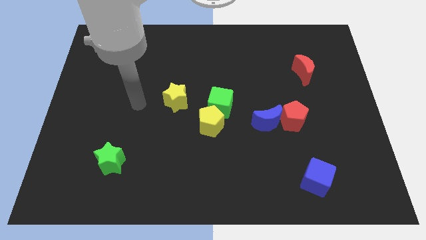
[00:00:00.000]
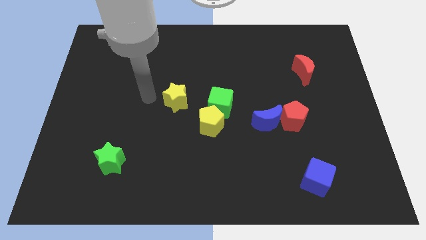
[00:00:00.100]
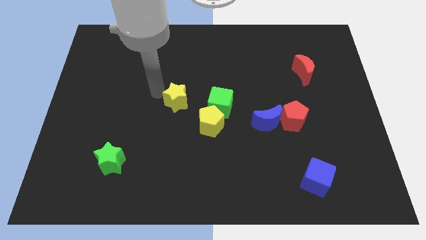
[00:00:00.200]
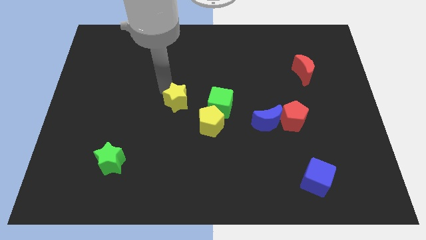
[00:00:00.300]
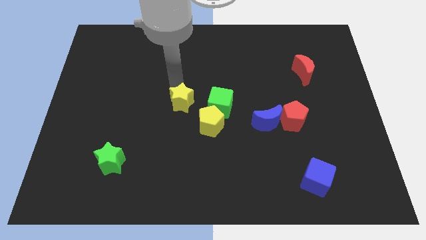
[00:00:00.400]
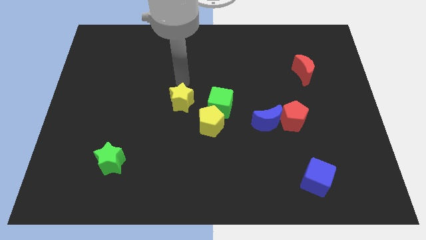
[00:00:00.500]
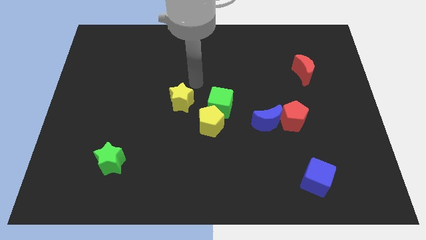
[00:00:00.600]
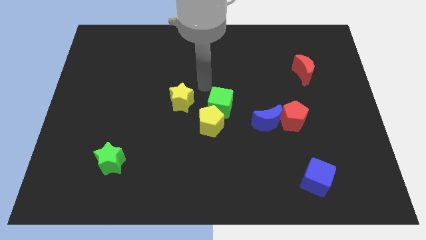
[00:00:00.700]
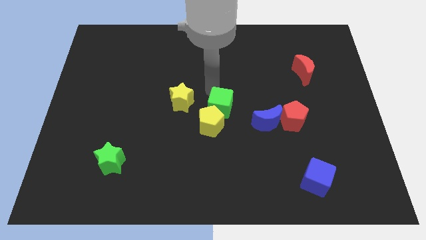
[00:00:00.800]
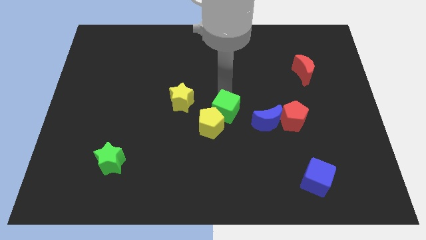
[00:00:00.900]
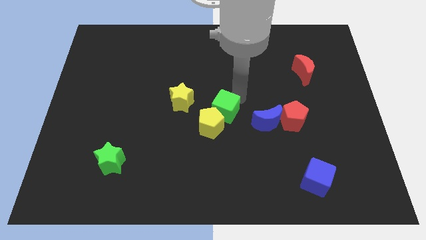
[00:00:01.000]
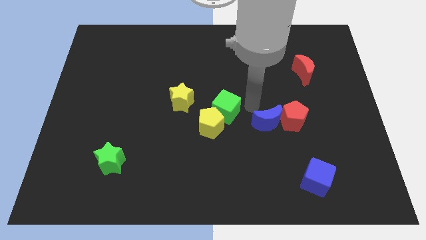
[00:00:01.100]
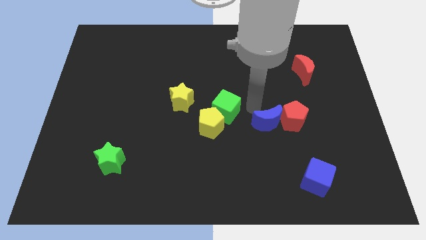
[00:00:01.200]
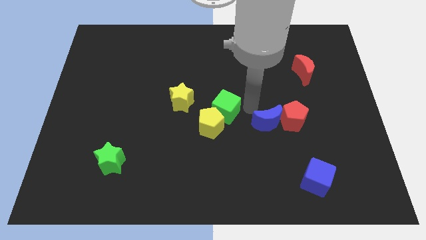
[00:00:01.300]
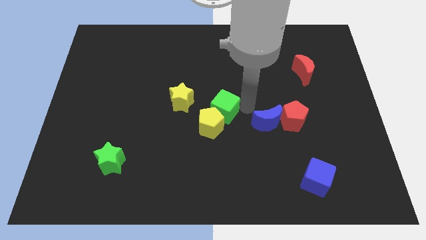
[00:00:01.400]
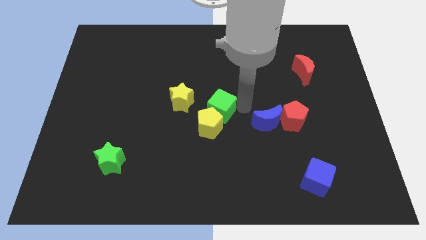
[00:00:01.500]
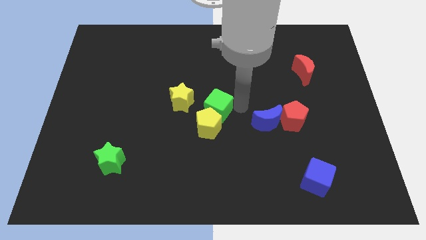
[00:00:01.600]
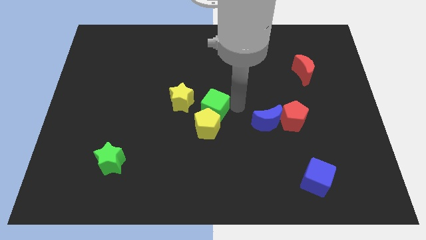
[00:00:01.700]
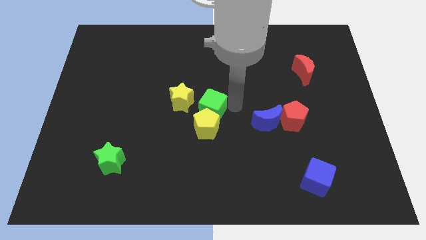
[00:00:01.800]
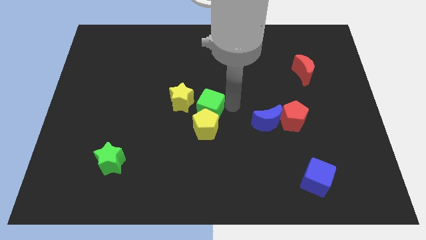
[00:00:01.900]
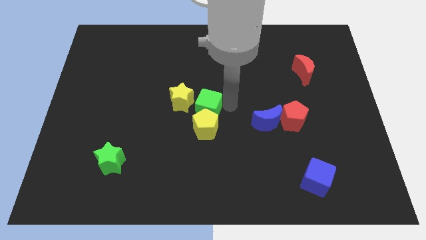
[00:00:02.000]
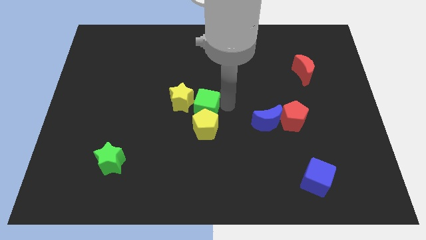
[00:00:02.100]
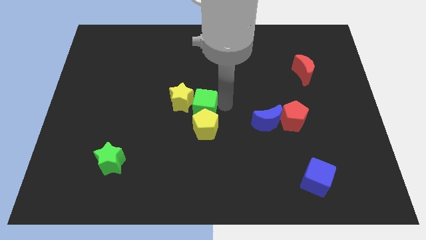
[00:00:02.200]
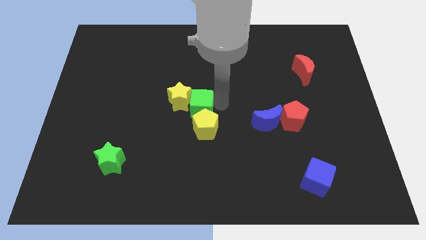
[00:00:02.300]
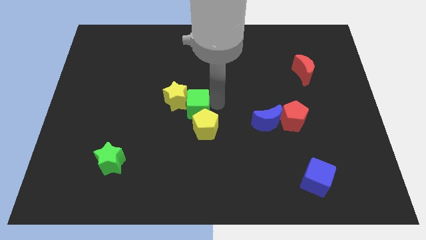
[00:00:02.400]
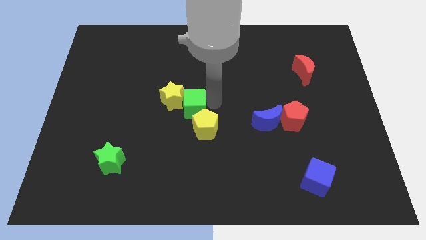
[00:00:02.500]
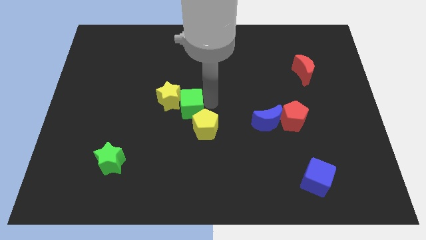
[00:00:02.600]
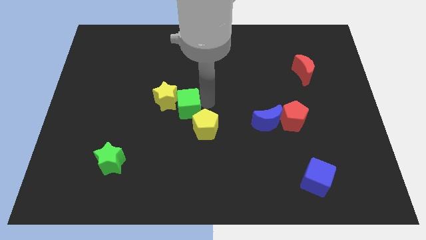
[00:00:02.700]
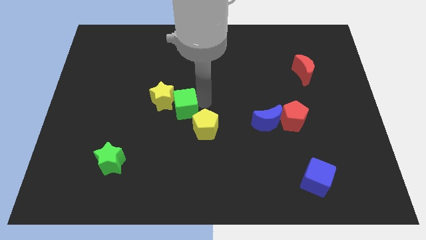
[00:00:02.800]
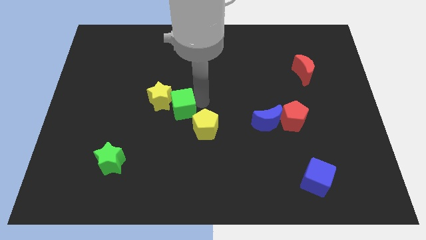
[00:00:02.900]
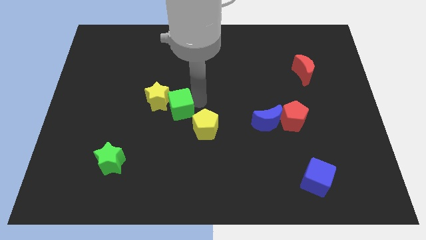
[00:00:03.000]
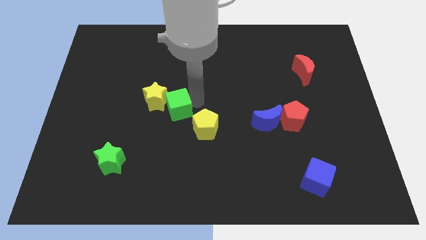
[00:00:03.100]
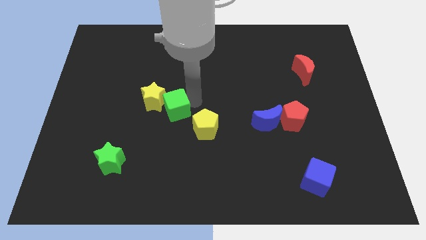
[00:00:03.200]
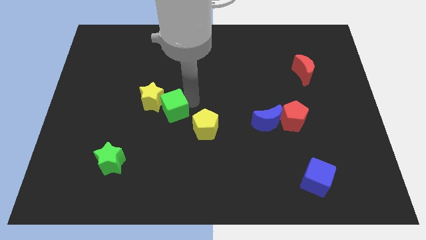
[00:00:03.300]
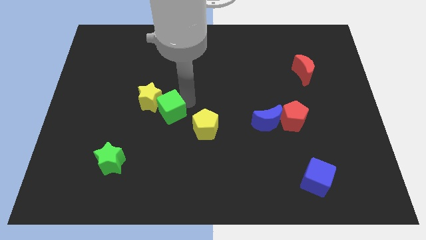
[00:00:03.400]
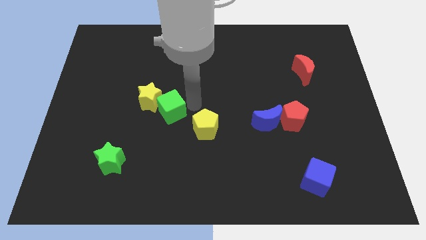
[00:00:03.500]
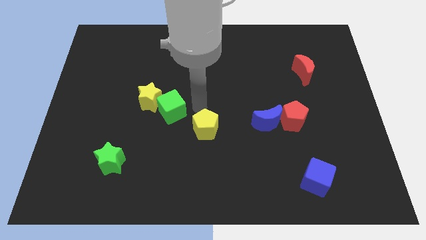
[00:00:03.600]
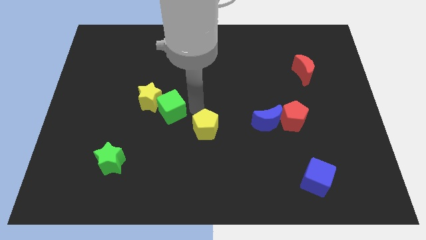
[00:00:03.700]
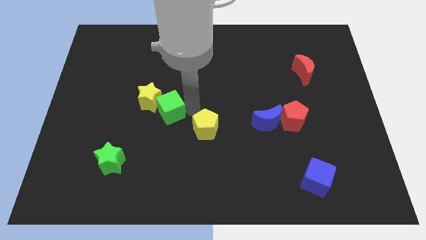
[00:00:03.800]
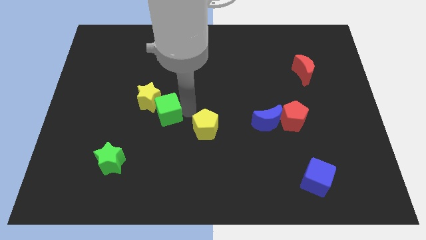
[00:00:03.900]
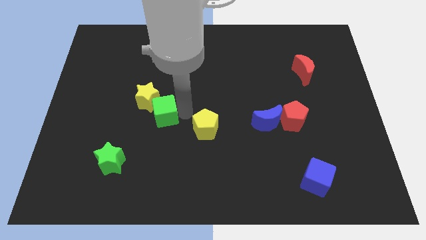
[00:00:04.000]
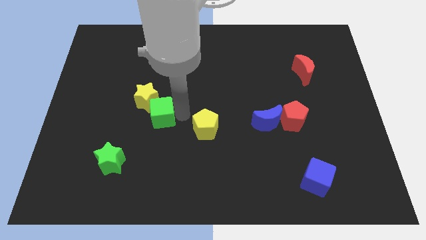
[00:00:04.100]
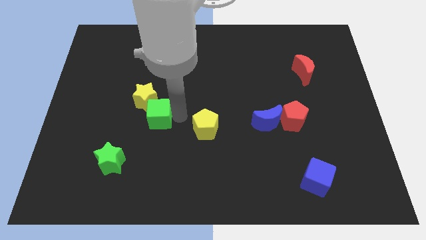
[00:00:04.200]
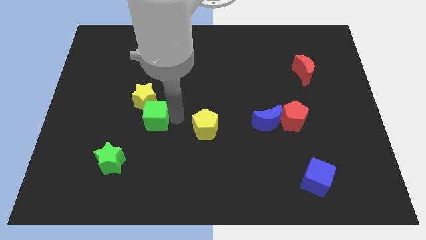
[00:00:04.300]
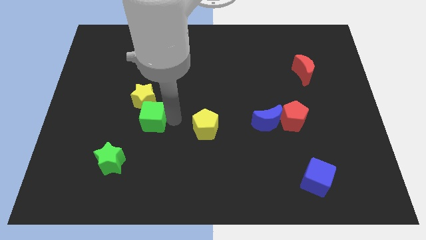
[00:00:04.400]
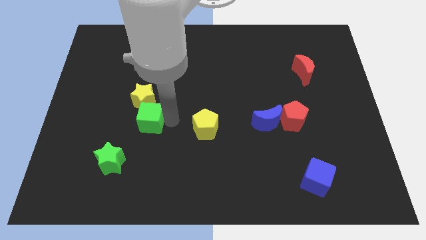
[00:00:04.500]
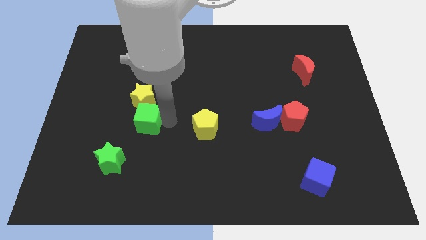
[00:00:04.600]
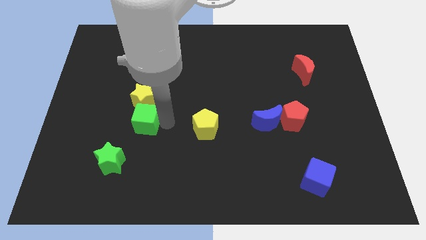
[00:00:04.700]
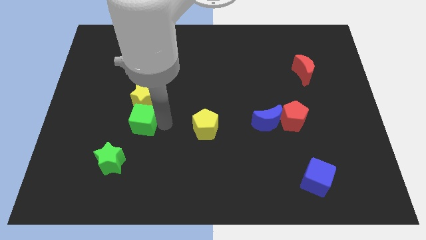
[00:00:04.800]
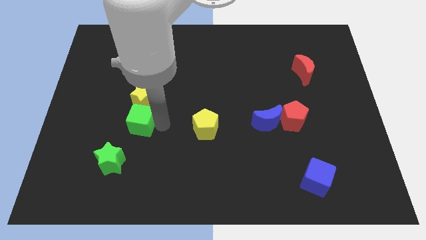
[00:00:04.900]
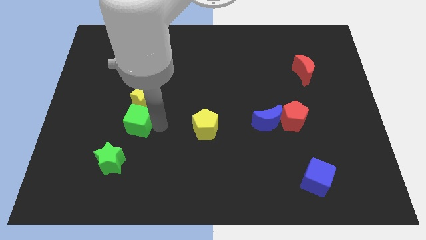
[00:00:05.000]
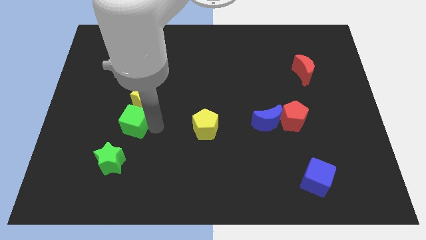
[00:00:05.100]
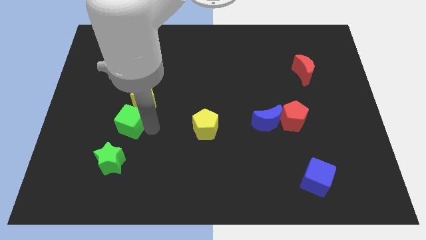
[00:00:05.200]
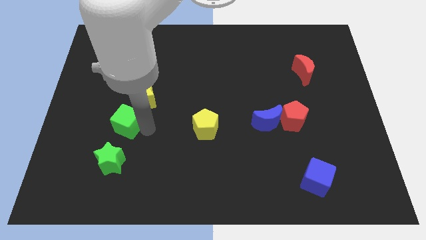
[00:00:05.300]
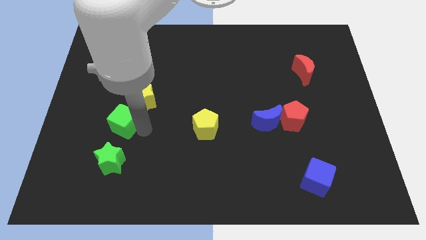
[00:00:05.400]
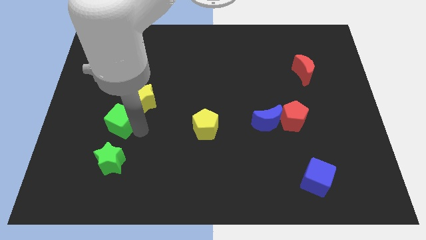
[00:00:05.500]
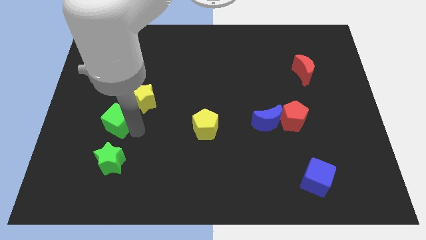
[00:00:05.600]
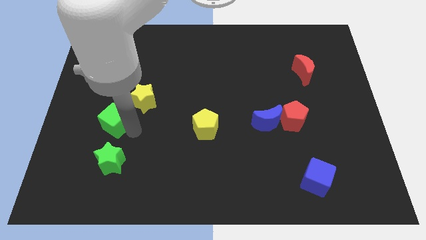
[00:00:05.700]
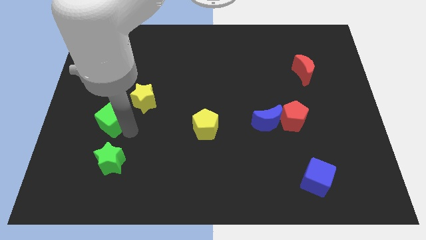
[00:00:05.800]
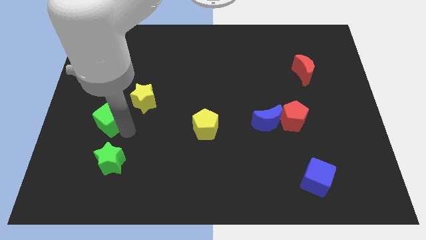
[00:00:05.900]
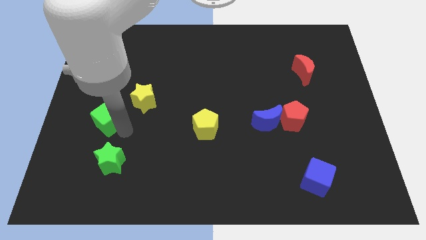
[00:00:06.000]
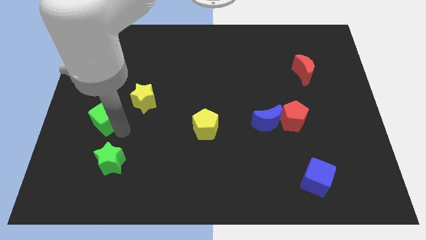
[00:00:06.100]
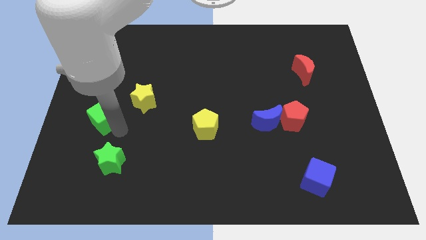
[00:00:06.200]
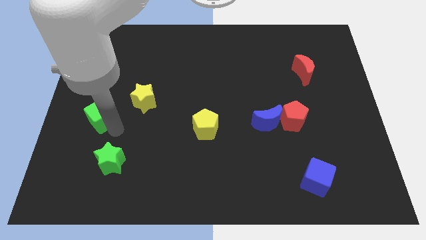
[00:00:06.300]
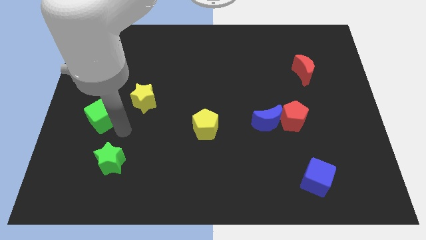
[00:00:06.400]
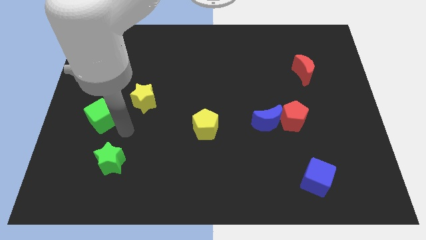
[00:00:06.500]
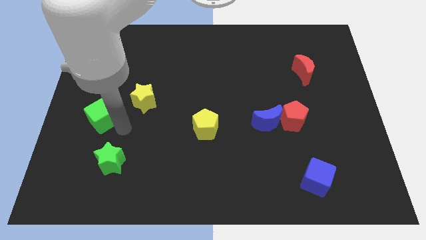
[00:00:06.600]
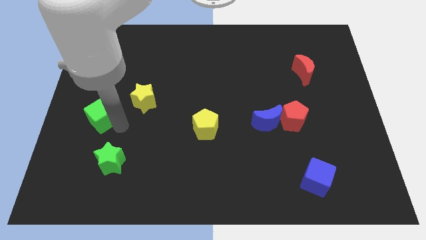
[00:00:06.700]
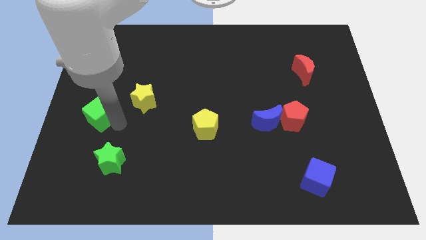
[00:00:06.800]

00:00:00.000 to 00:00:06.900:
push the green cube to the left side of the board

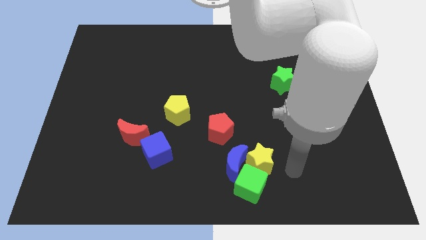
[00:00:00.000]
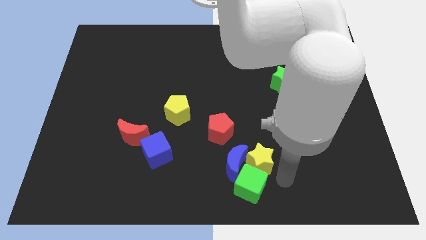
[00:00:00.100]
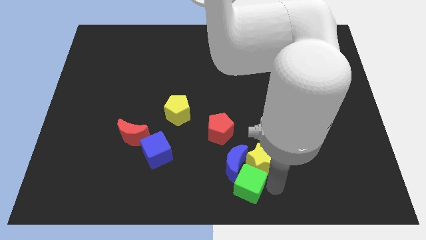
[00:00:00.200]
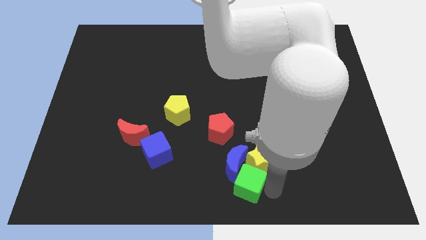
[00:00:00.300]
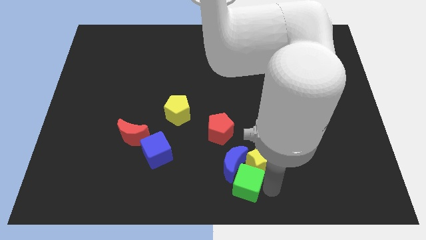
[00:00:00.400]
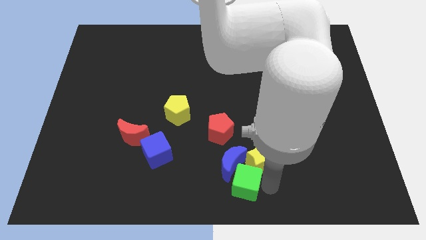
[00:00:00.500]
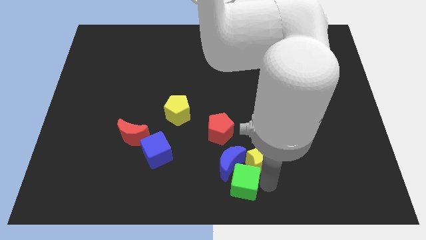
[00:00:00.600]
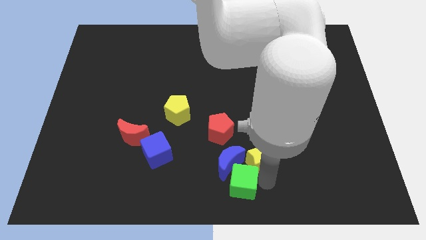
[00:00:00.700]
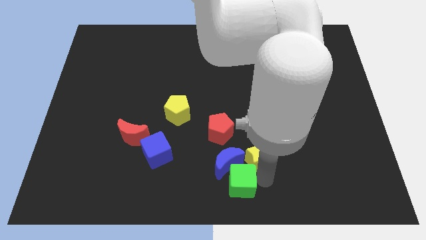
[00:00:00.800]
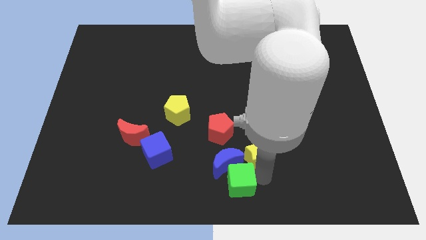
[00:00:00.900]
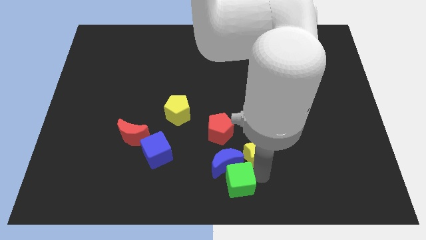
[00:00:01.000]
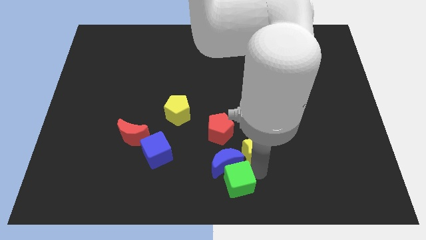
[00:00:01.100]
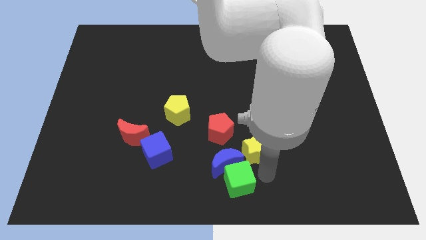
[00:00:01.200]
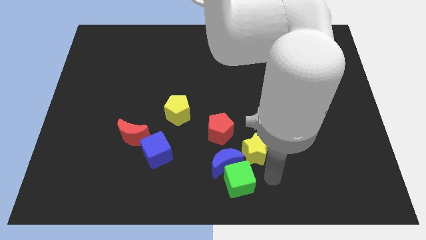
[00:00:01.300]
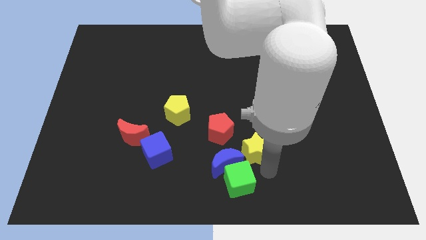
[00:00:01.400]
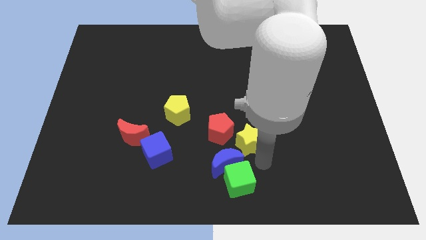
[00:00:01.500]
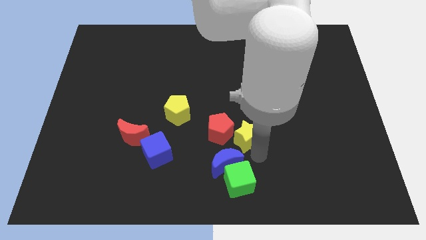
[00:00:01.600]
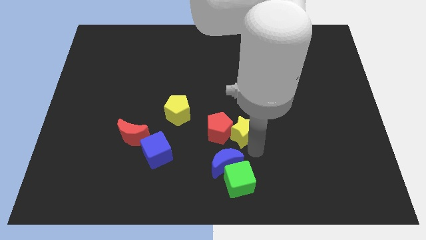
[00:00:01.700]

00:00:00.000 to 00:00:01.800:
push the yellow star to the center
